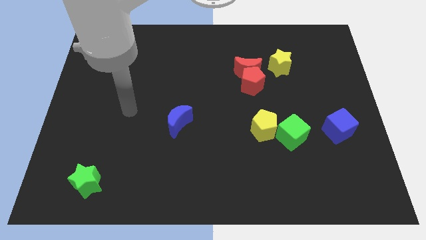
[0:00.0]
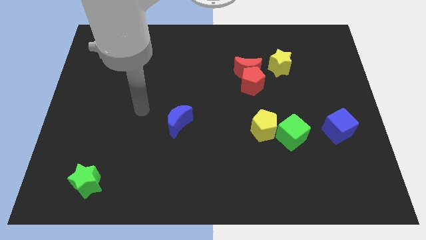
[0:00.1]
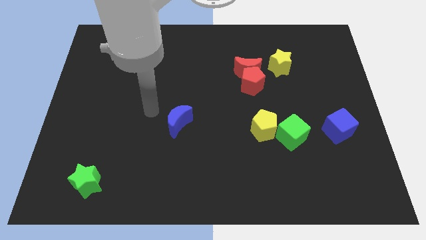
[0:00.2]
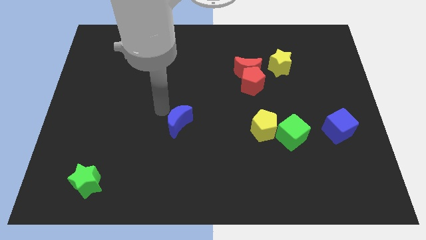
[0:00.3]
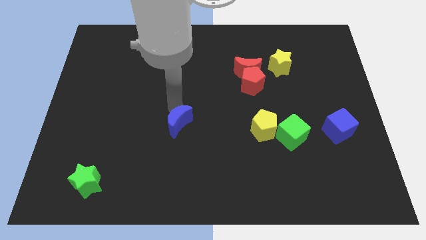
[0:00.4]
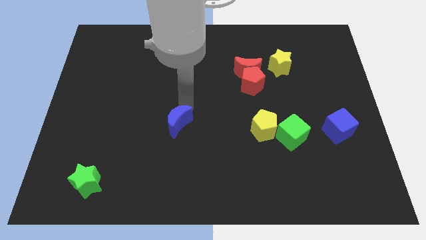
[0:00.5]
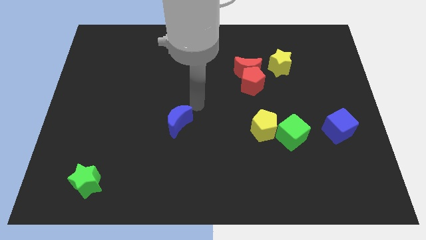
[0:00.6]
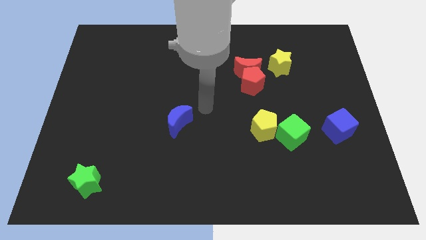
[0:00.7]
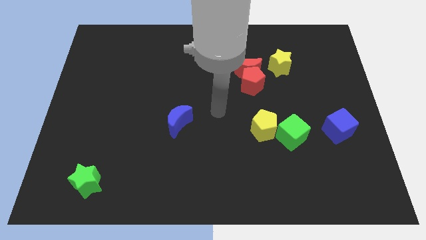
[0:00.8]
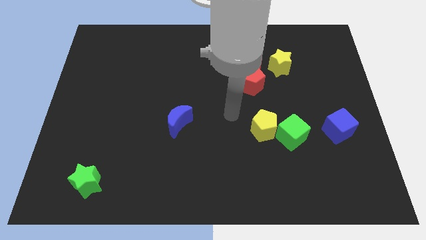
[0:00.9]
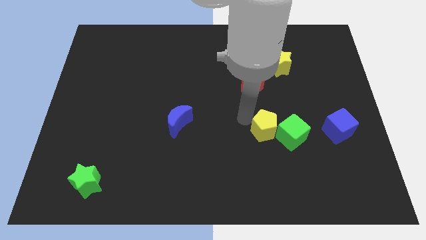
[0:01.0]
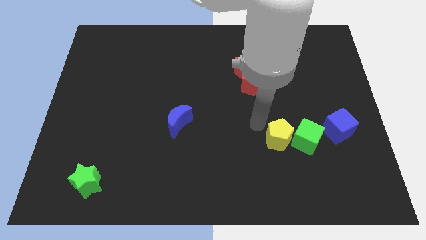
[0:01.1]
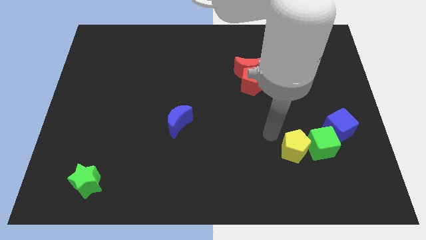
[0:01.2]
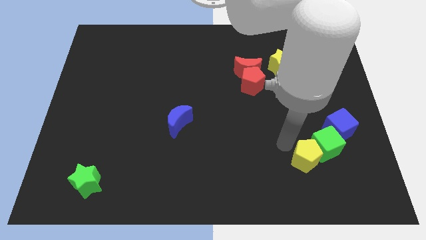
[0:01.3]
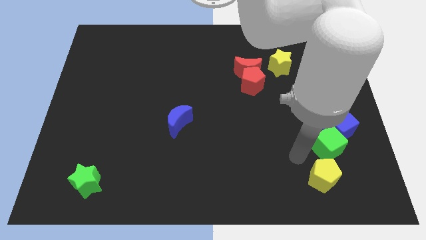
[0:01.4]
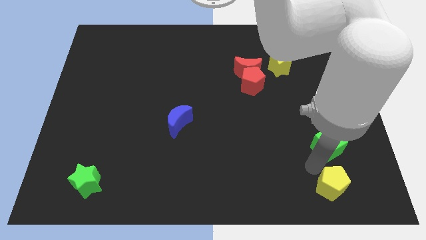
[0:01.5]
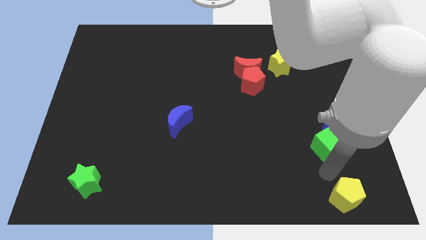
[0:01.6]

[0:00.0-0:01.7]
move the green cube away from the yellow pentagon

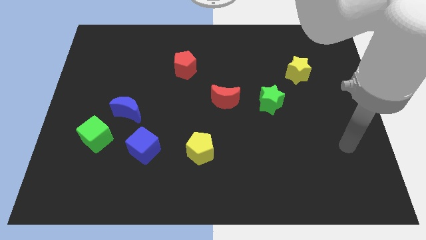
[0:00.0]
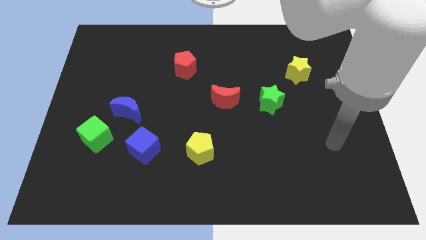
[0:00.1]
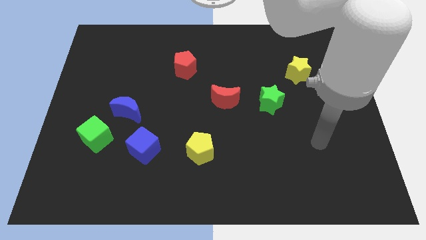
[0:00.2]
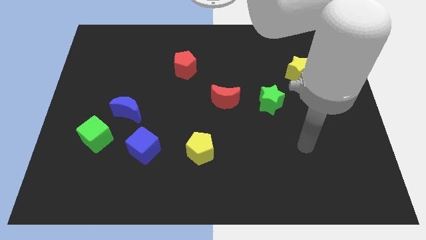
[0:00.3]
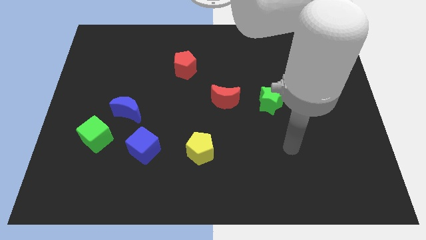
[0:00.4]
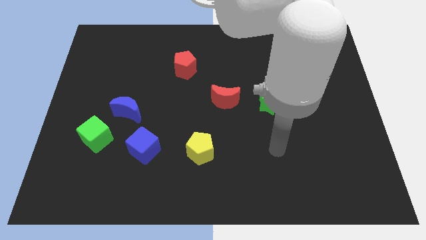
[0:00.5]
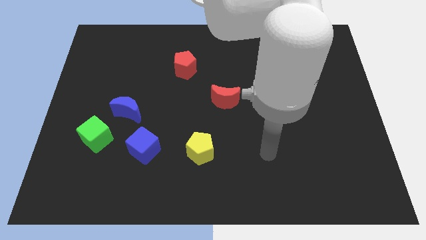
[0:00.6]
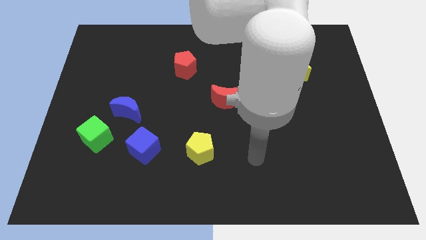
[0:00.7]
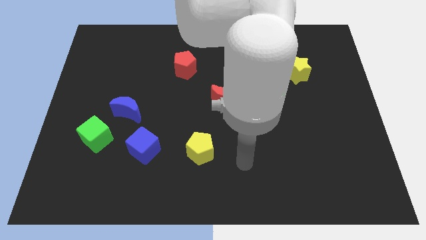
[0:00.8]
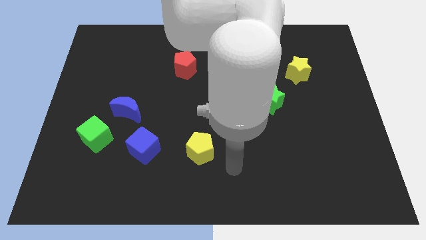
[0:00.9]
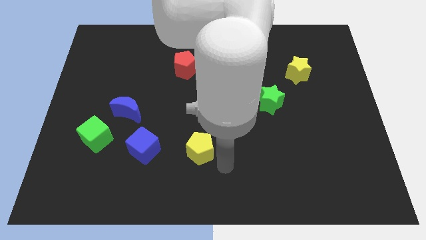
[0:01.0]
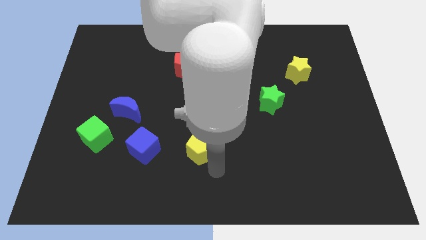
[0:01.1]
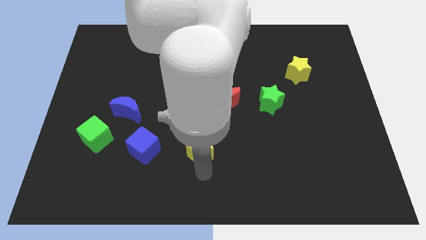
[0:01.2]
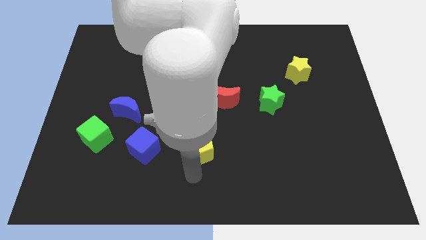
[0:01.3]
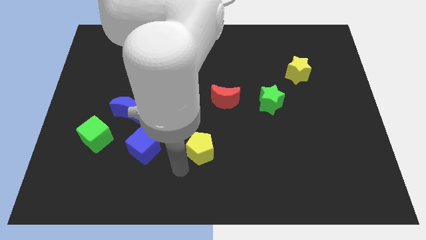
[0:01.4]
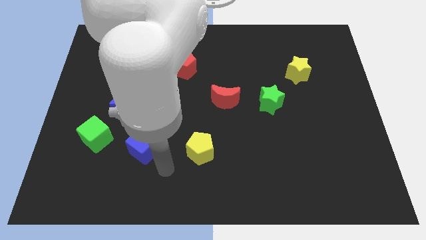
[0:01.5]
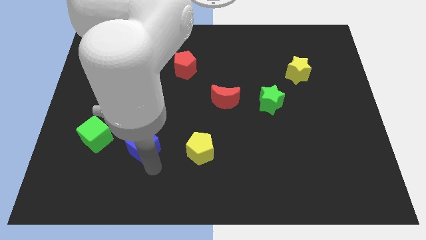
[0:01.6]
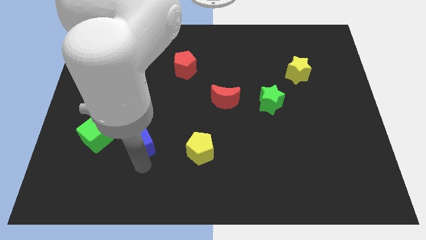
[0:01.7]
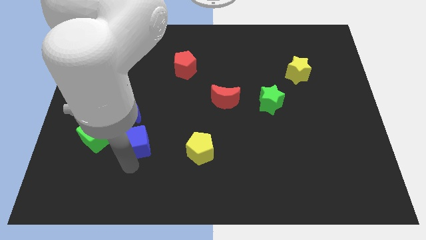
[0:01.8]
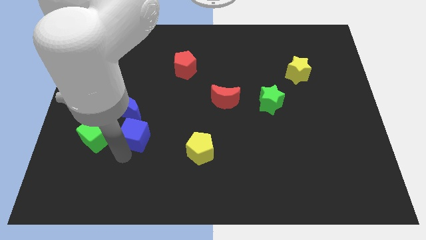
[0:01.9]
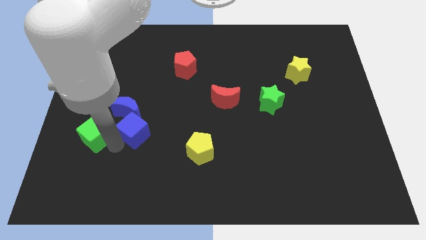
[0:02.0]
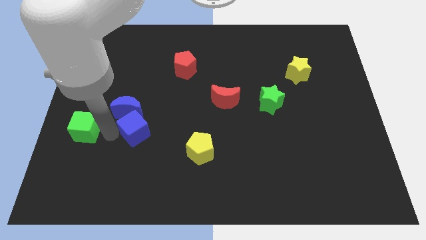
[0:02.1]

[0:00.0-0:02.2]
separate the blue moon from the green cube

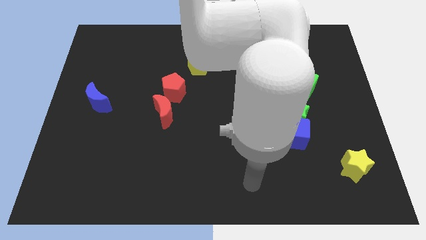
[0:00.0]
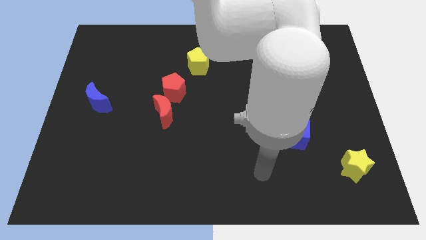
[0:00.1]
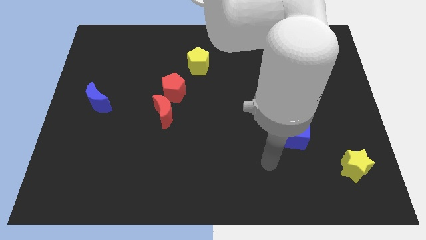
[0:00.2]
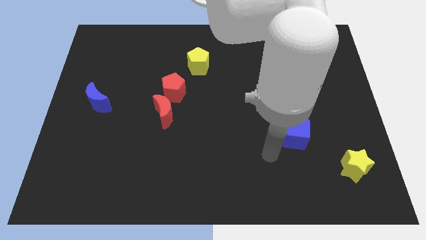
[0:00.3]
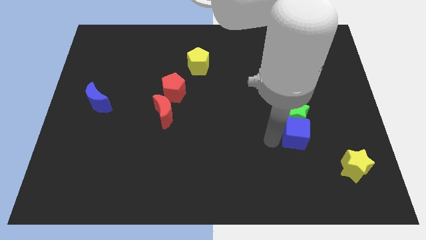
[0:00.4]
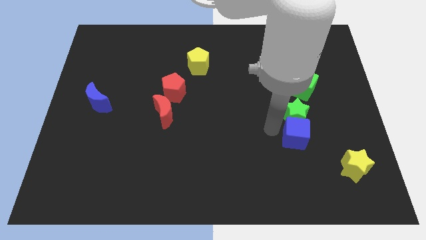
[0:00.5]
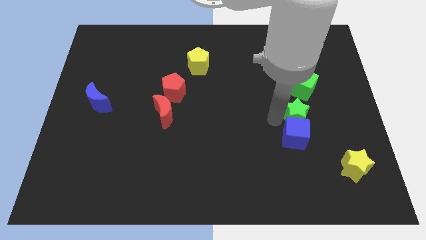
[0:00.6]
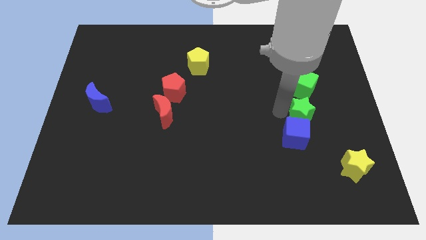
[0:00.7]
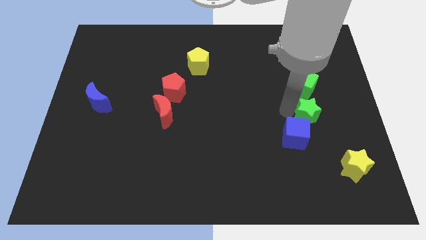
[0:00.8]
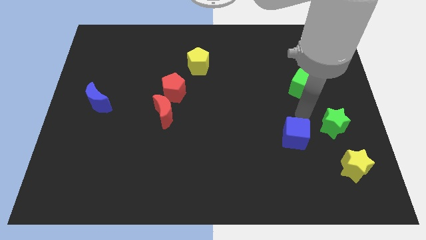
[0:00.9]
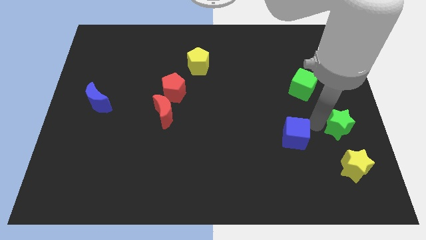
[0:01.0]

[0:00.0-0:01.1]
separate the blue cube from the green star

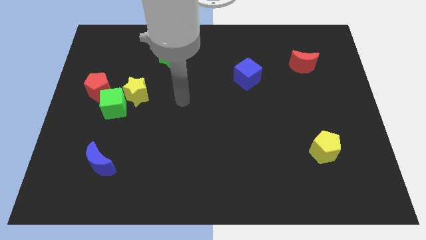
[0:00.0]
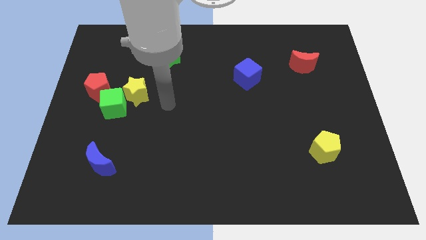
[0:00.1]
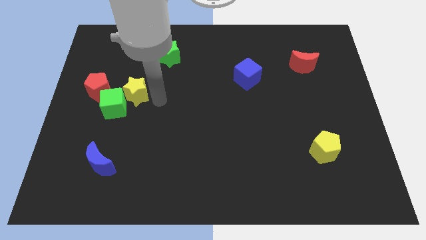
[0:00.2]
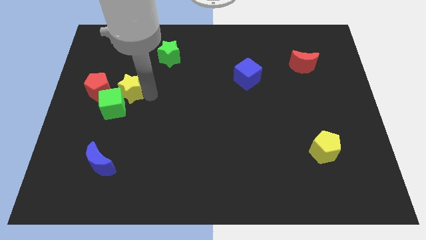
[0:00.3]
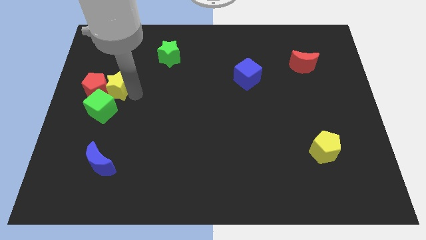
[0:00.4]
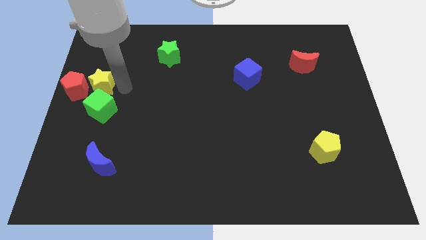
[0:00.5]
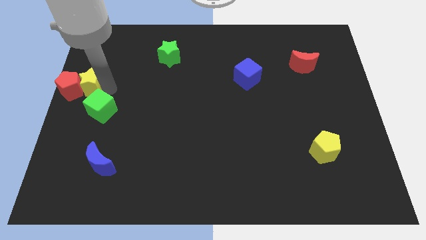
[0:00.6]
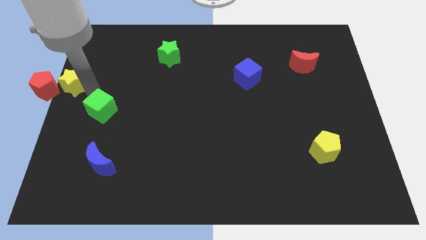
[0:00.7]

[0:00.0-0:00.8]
separate the green cube from the yellow star and red pentagon

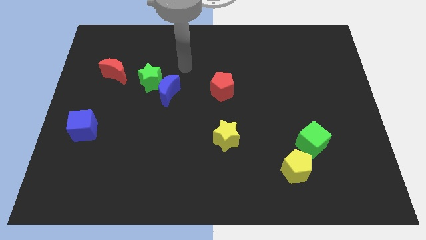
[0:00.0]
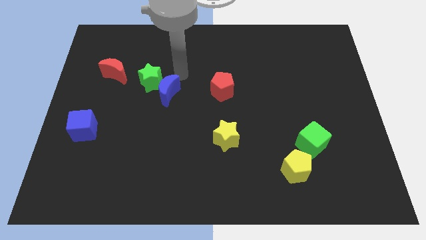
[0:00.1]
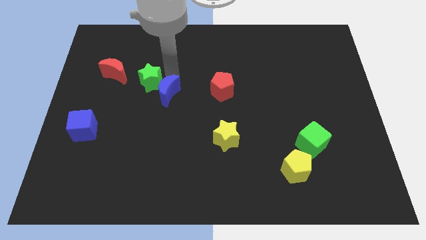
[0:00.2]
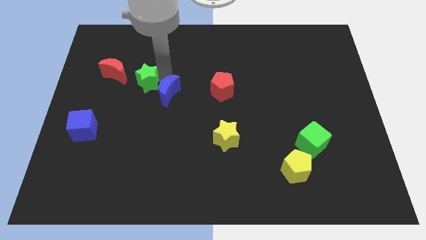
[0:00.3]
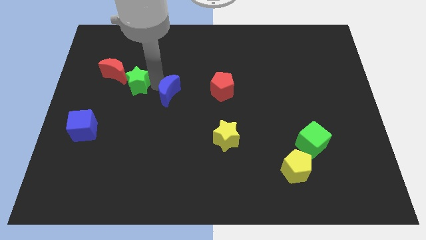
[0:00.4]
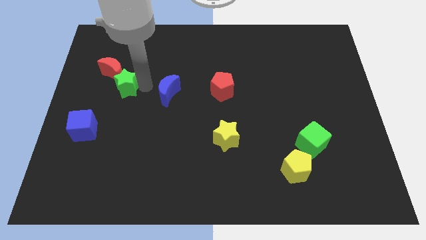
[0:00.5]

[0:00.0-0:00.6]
separate the blue moon from the green star

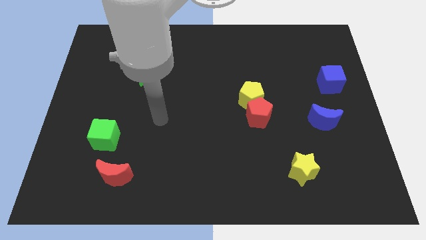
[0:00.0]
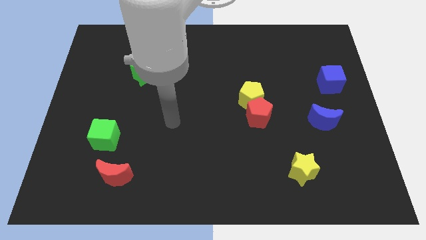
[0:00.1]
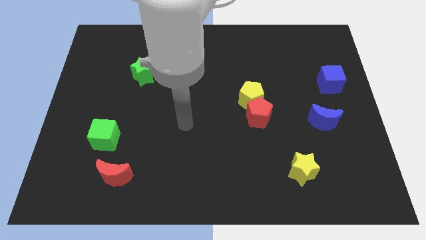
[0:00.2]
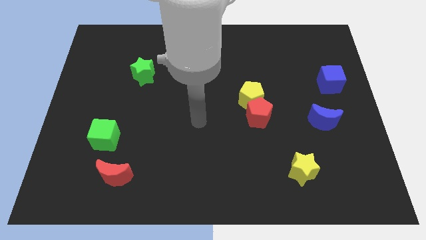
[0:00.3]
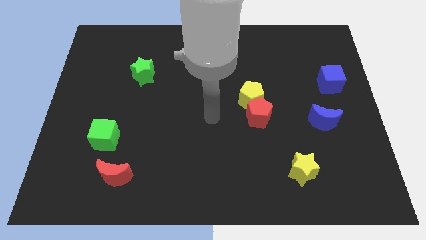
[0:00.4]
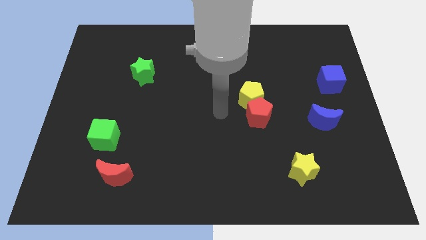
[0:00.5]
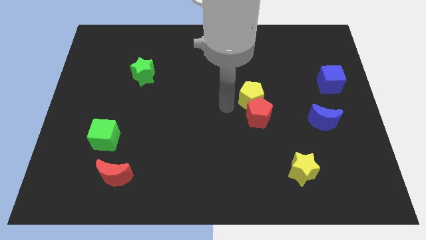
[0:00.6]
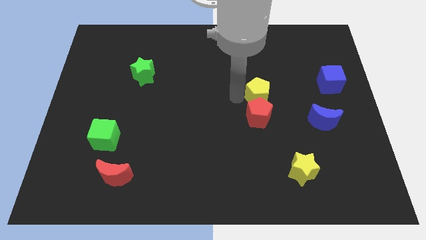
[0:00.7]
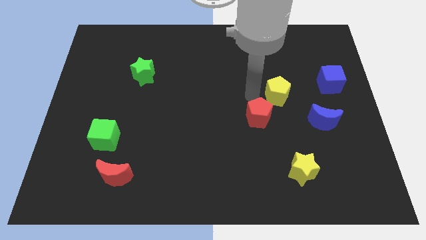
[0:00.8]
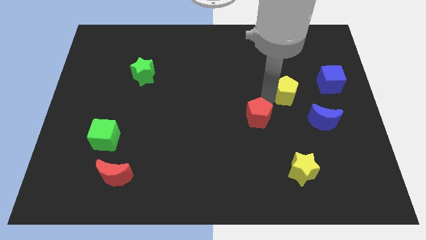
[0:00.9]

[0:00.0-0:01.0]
separate the red pentagon from the yellow pentagon

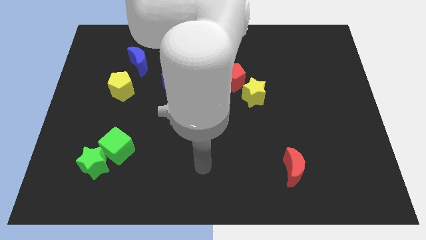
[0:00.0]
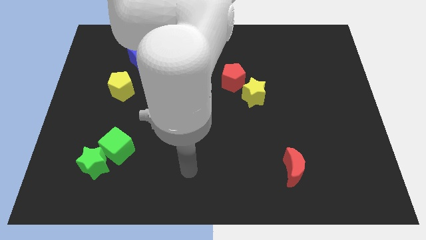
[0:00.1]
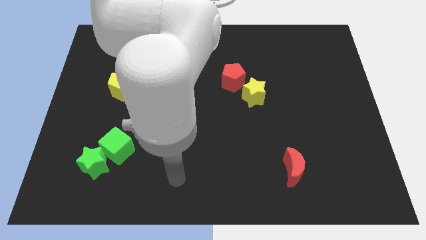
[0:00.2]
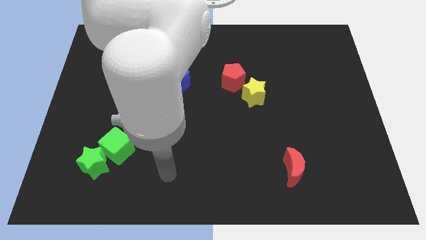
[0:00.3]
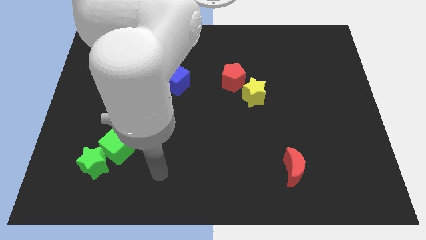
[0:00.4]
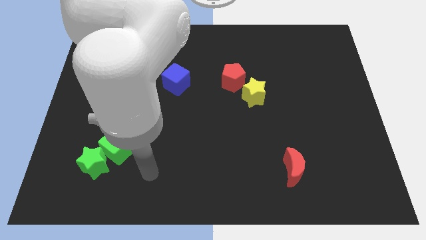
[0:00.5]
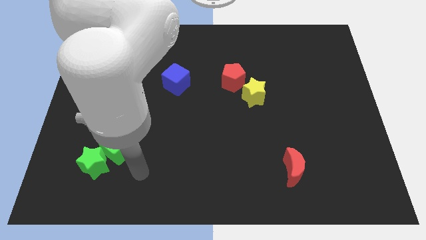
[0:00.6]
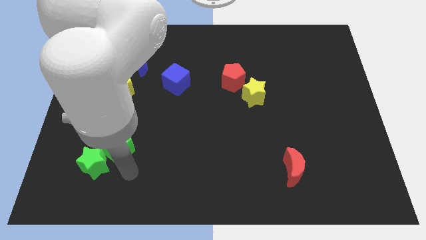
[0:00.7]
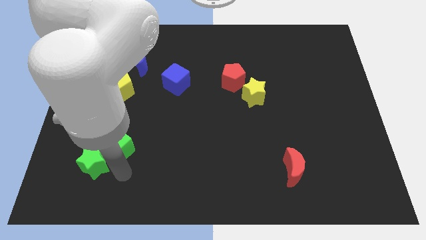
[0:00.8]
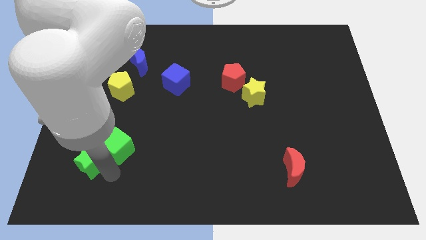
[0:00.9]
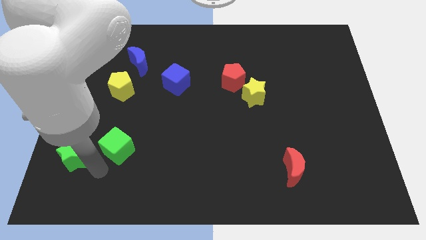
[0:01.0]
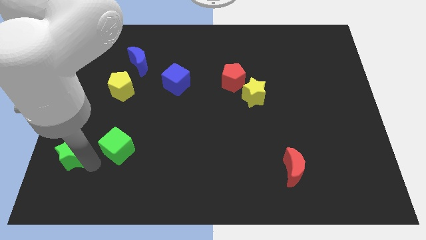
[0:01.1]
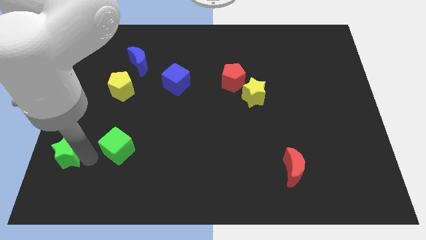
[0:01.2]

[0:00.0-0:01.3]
pull the green cube apart from the green star

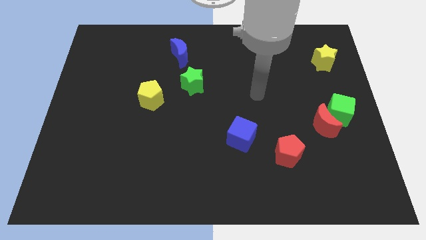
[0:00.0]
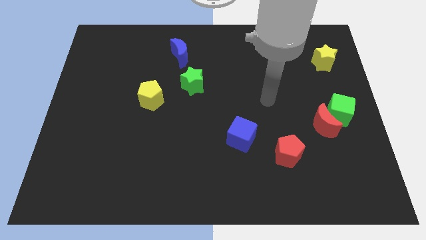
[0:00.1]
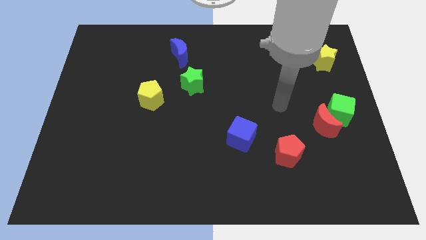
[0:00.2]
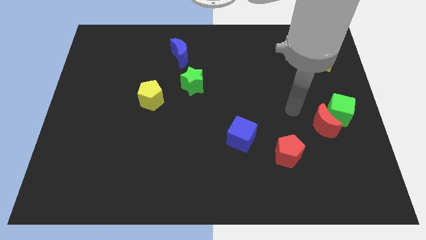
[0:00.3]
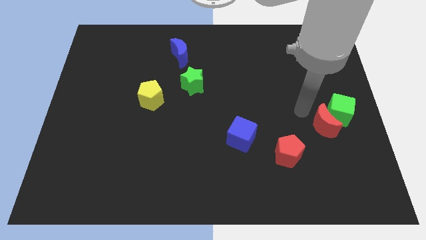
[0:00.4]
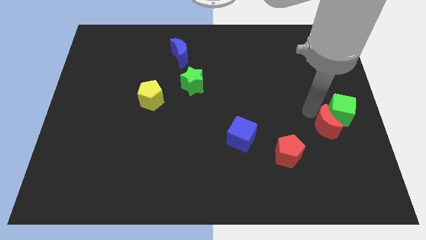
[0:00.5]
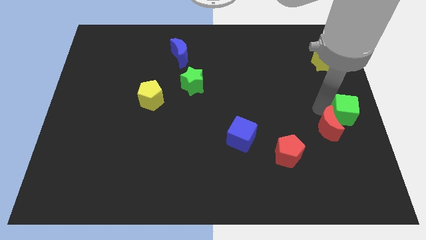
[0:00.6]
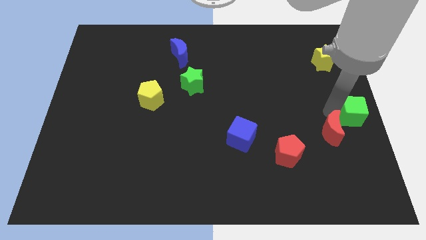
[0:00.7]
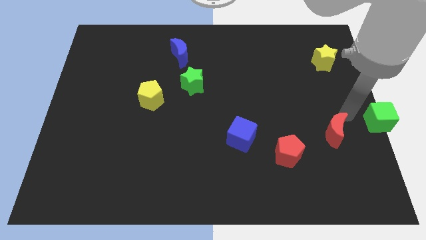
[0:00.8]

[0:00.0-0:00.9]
move the red moon away from the green cube
